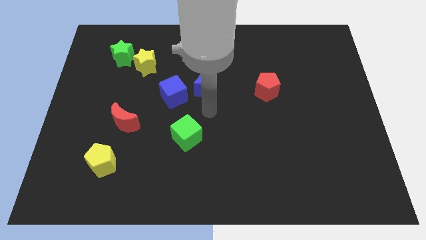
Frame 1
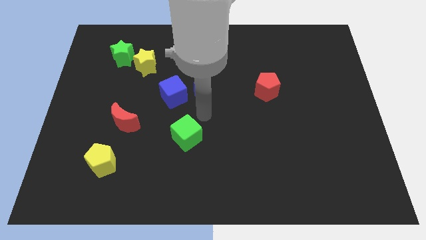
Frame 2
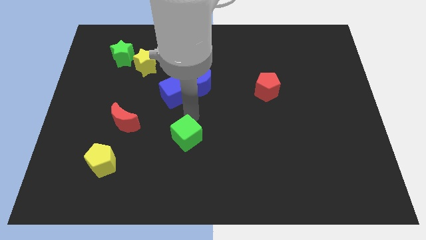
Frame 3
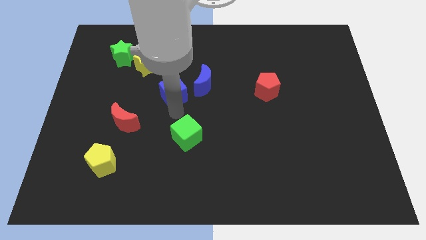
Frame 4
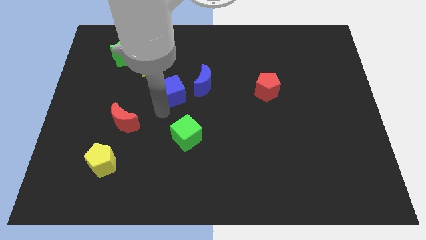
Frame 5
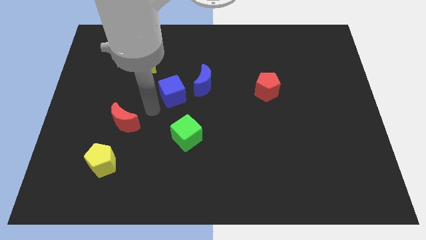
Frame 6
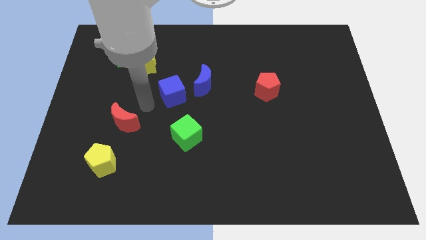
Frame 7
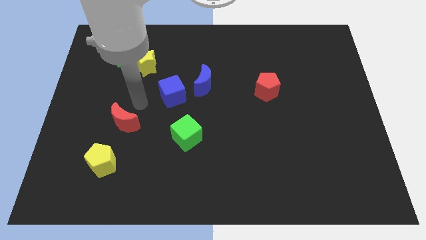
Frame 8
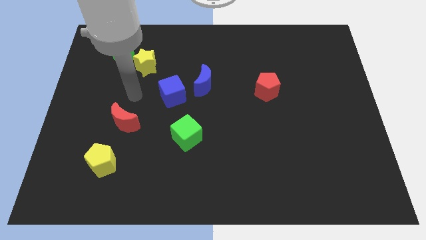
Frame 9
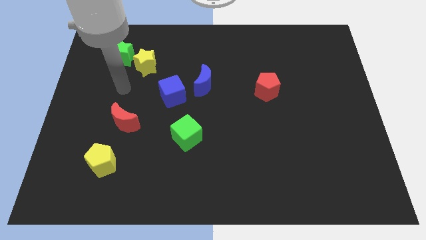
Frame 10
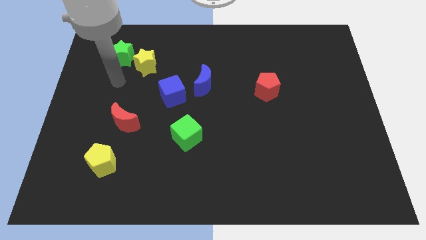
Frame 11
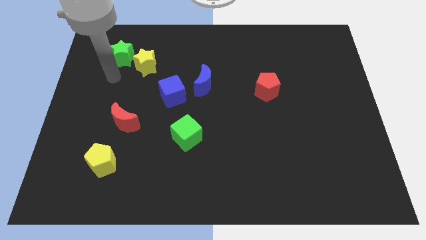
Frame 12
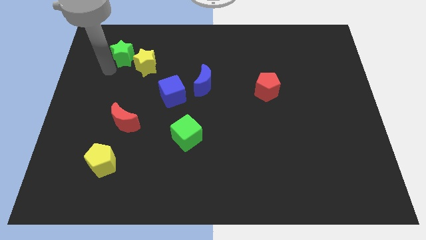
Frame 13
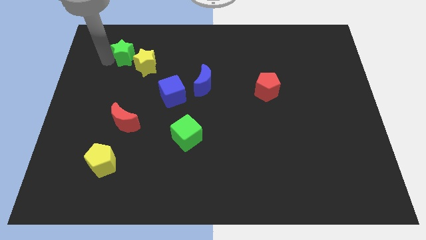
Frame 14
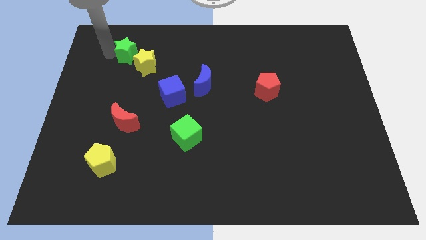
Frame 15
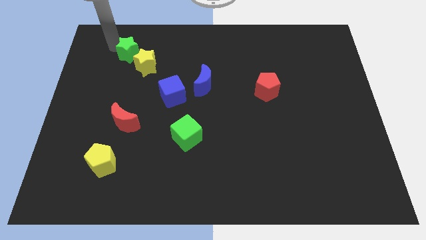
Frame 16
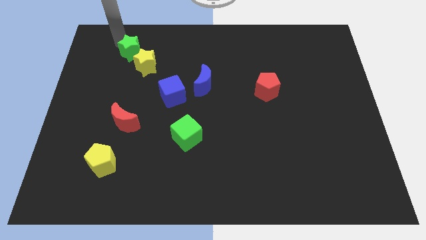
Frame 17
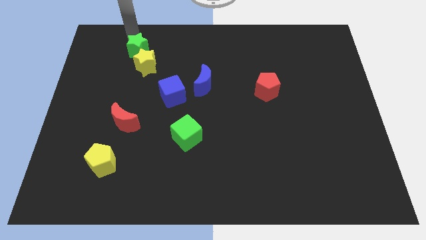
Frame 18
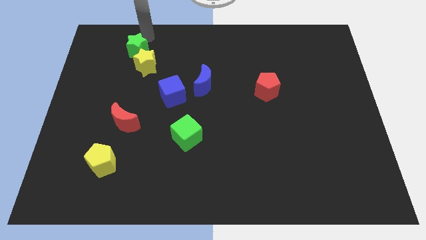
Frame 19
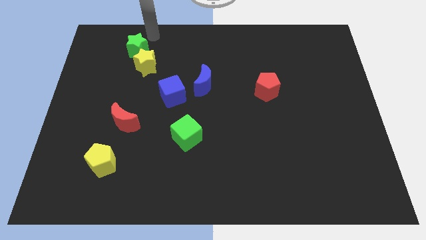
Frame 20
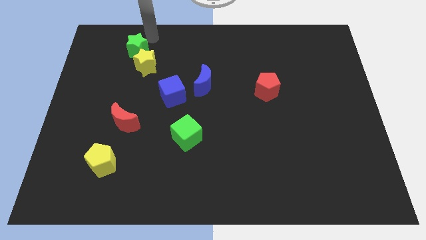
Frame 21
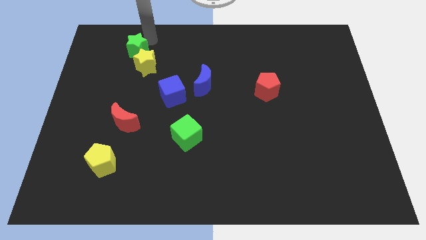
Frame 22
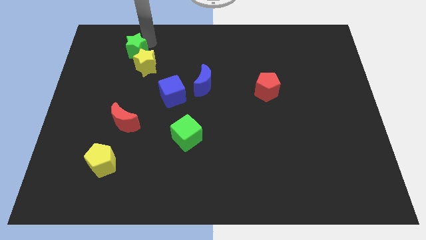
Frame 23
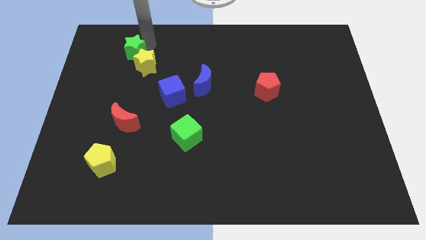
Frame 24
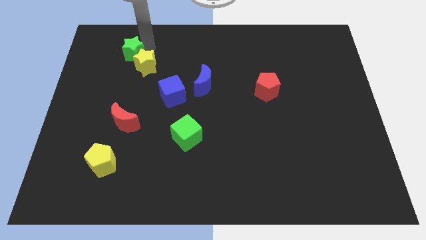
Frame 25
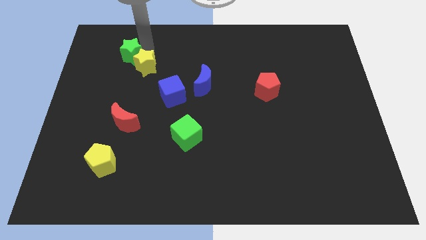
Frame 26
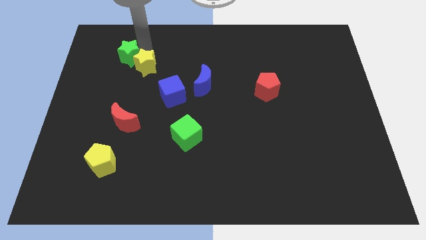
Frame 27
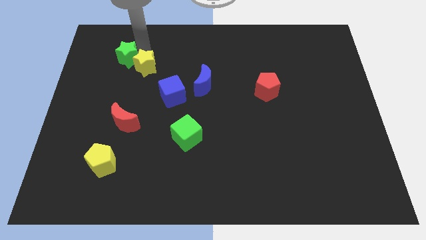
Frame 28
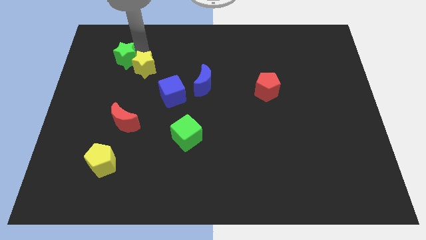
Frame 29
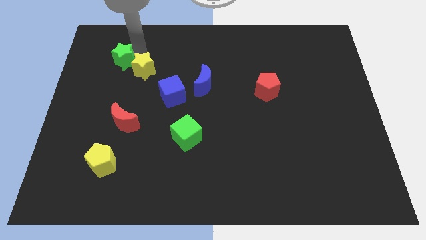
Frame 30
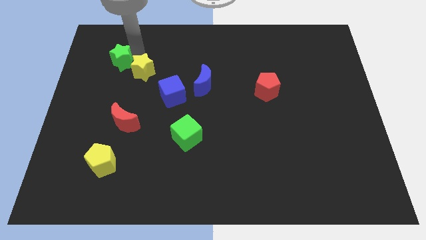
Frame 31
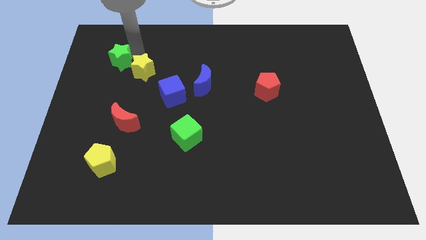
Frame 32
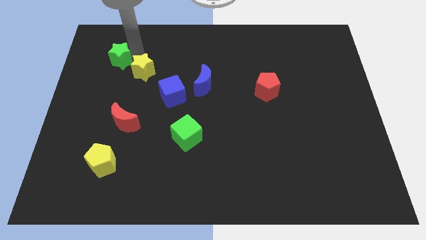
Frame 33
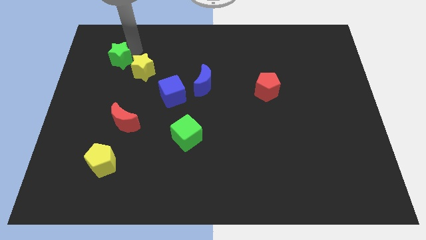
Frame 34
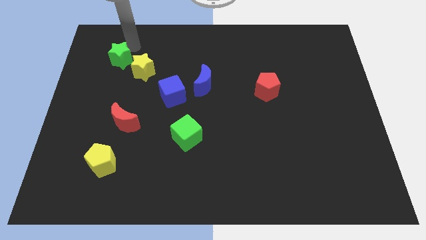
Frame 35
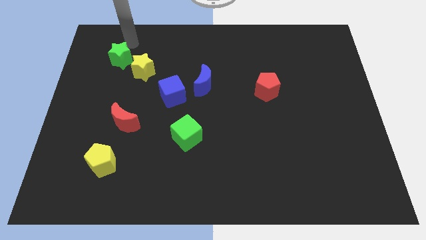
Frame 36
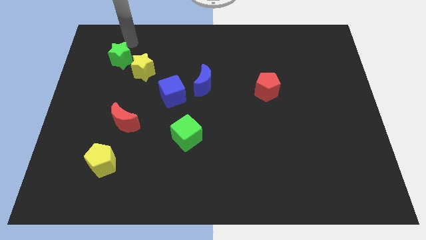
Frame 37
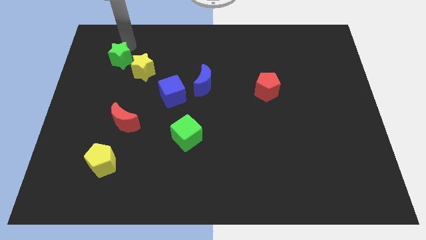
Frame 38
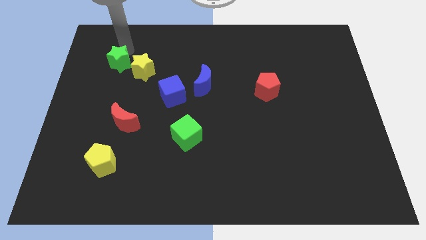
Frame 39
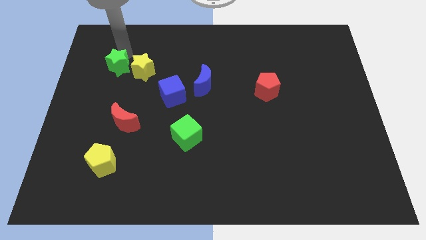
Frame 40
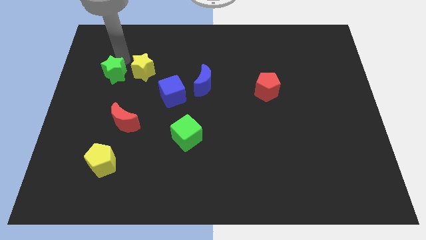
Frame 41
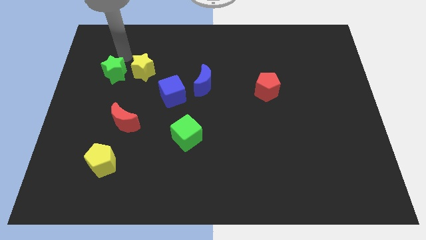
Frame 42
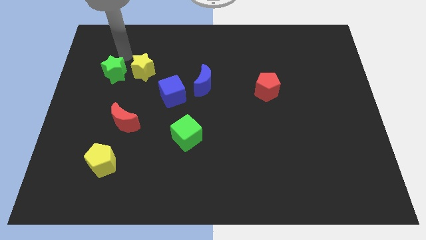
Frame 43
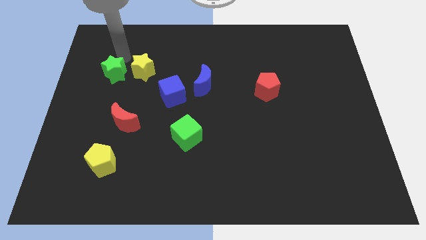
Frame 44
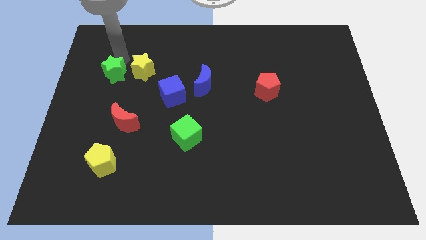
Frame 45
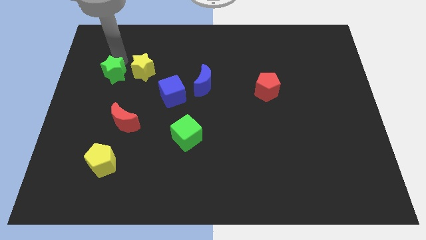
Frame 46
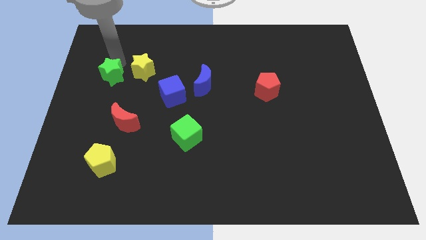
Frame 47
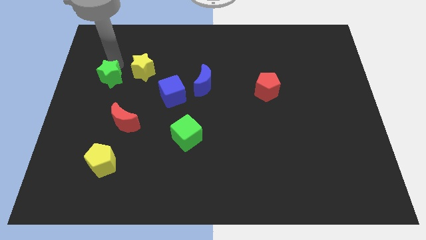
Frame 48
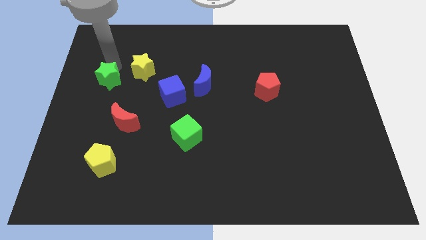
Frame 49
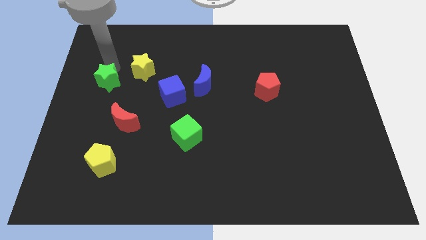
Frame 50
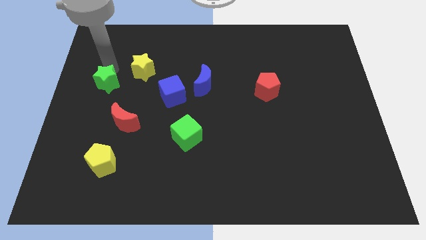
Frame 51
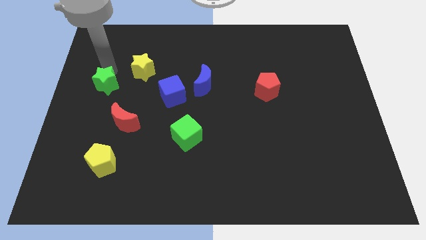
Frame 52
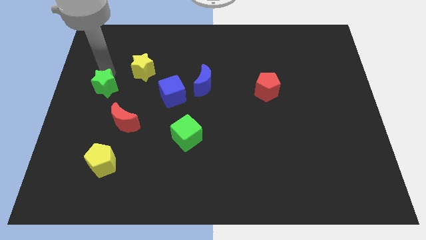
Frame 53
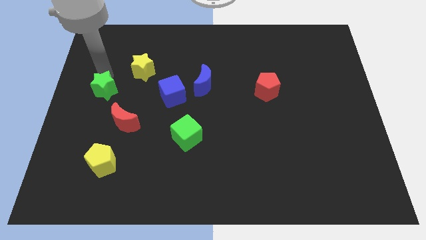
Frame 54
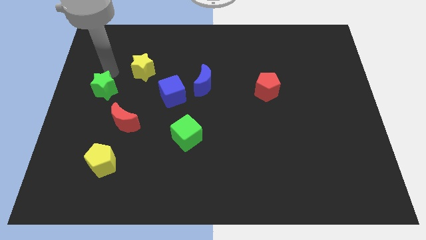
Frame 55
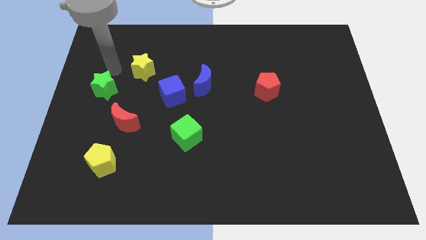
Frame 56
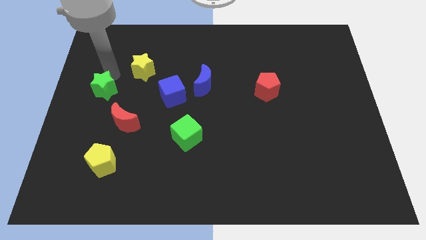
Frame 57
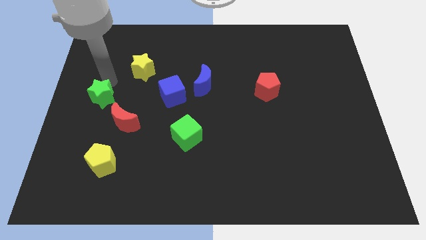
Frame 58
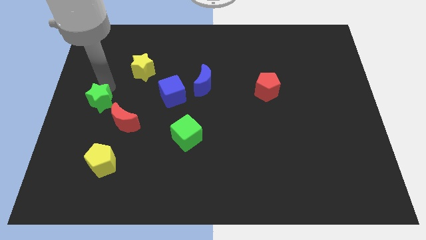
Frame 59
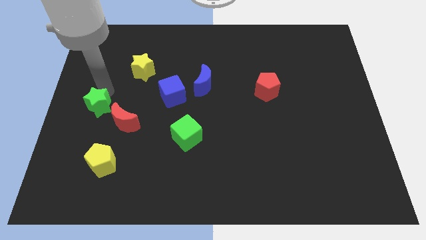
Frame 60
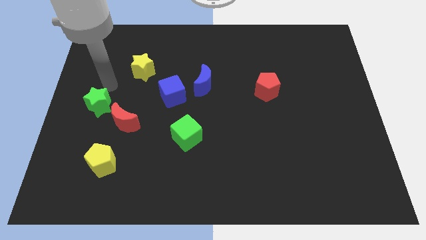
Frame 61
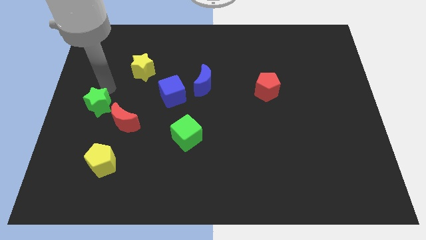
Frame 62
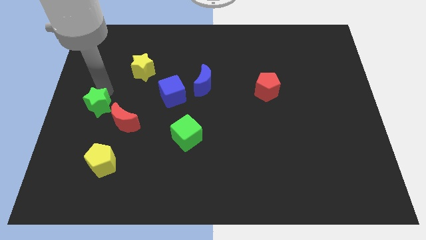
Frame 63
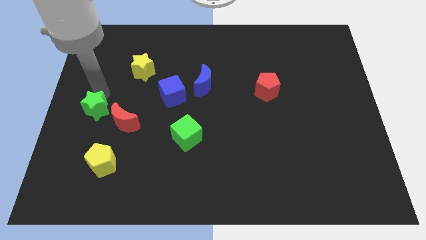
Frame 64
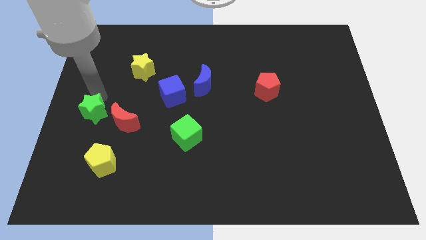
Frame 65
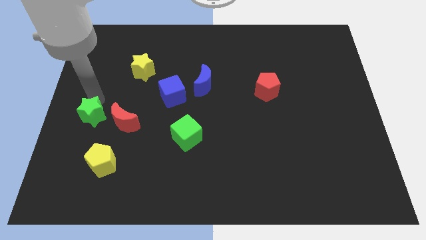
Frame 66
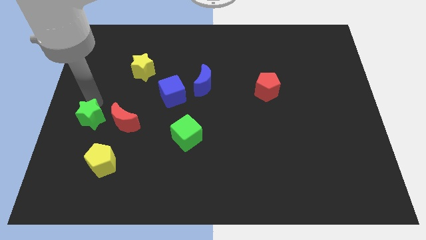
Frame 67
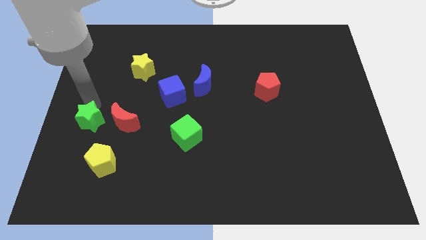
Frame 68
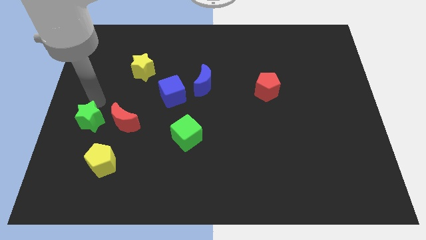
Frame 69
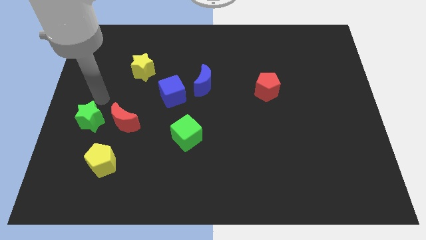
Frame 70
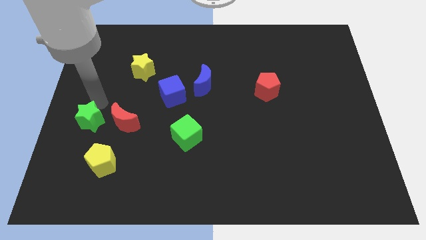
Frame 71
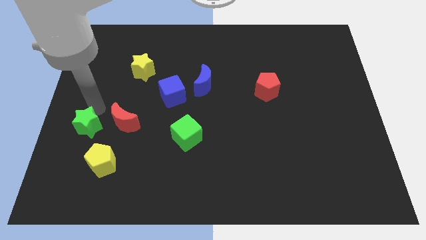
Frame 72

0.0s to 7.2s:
push the green star diagonally up and to the left of the yellow pentagon
